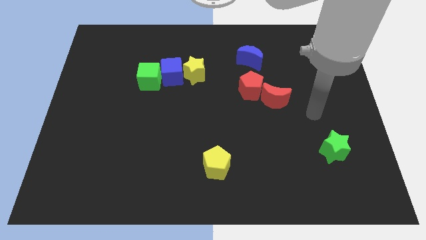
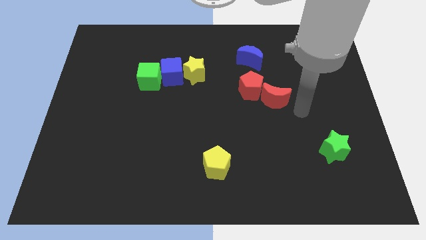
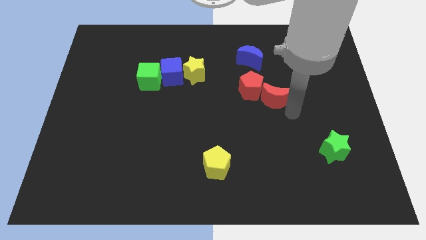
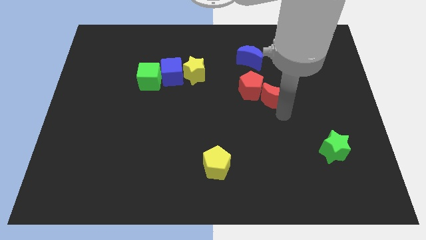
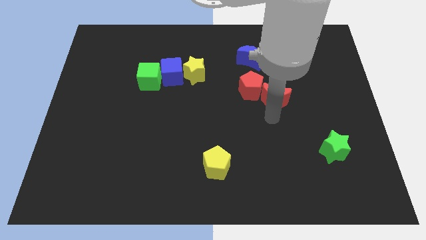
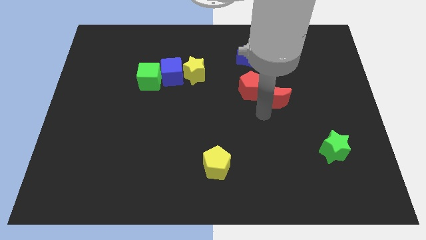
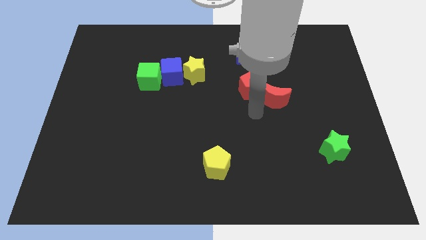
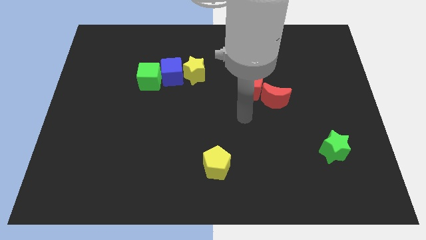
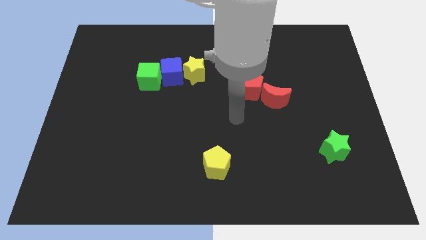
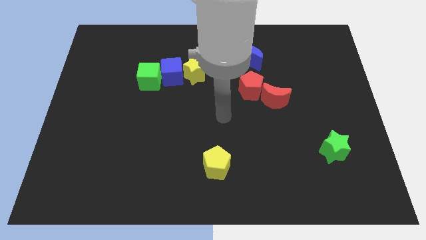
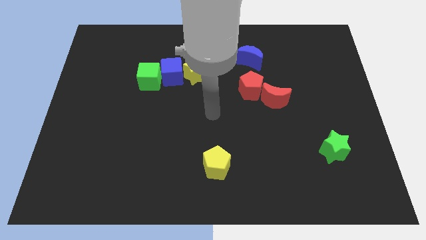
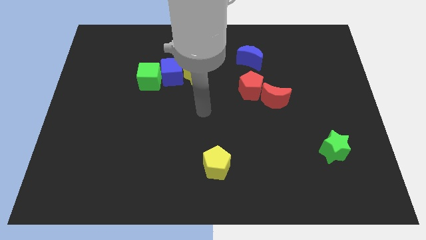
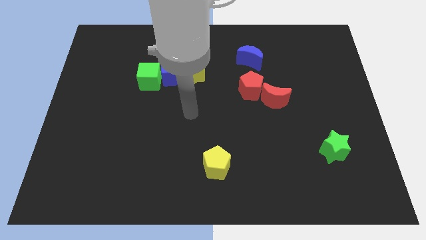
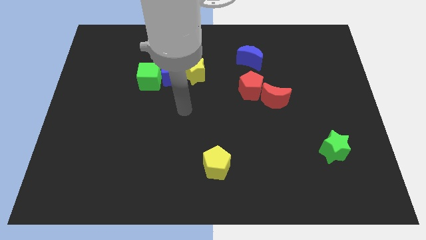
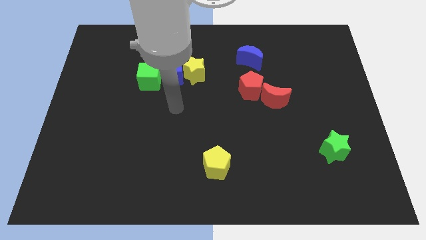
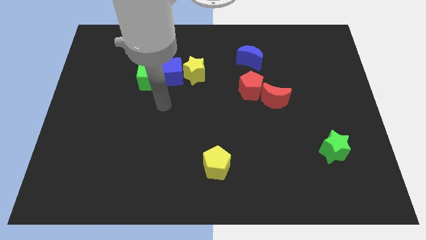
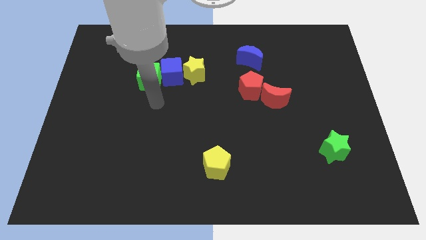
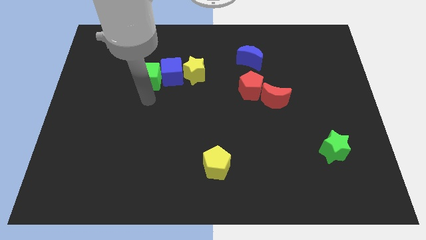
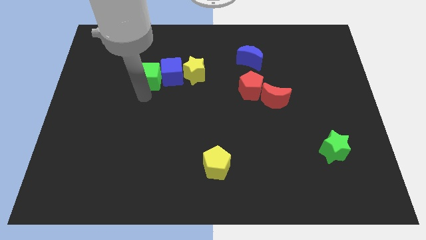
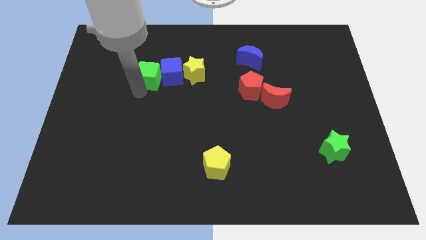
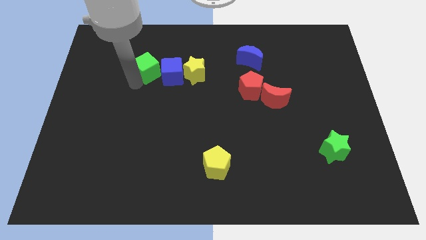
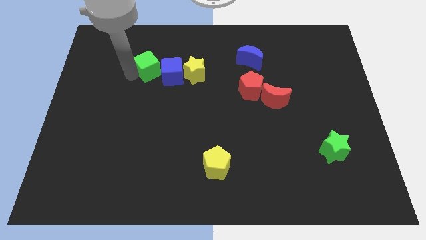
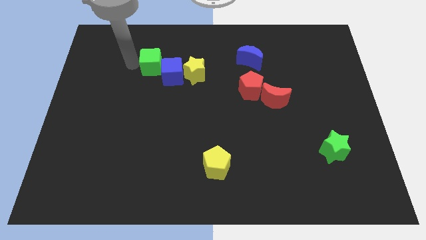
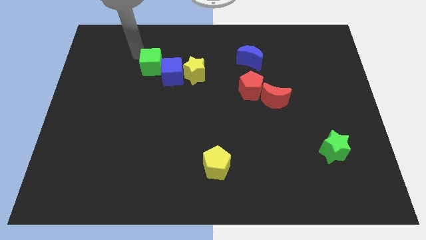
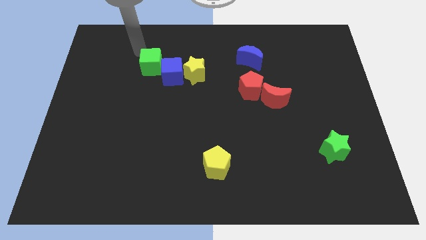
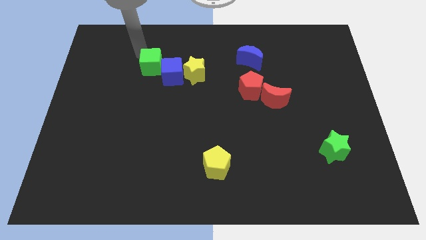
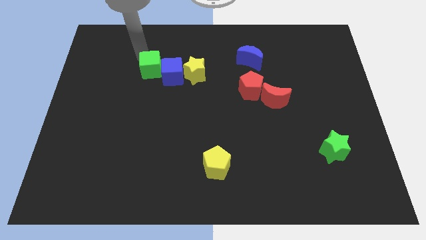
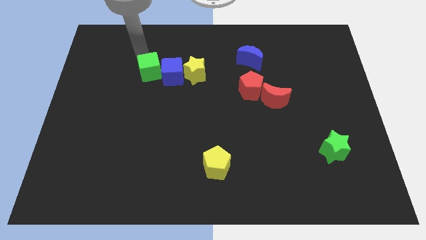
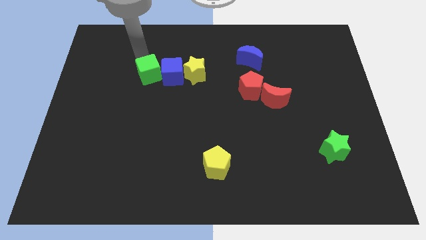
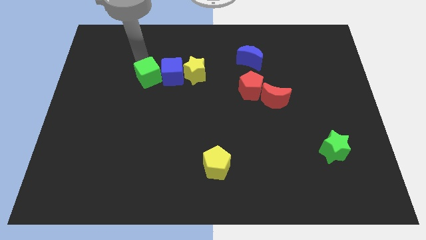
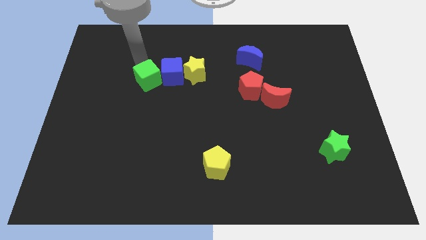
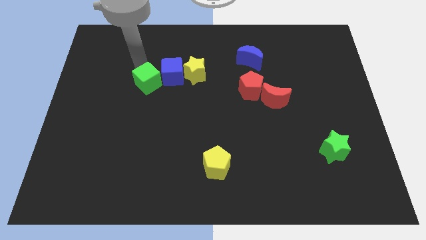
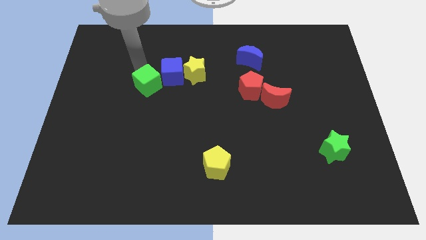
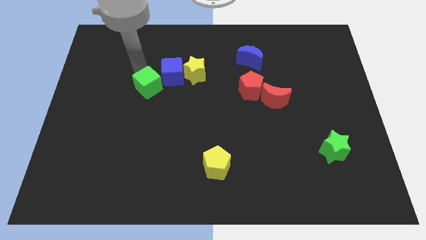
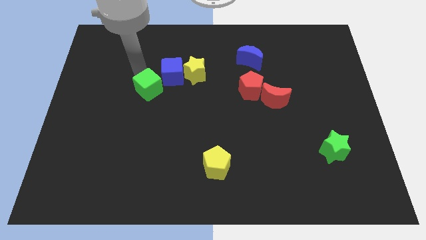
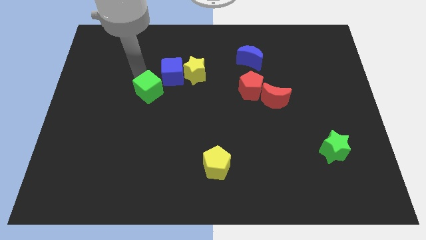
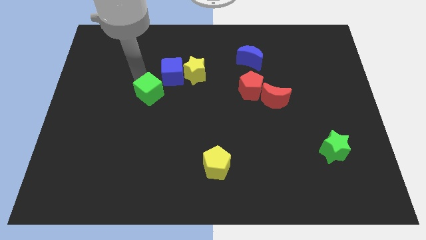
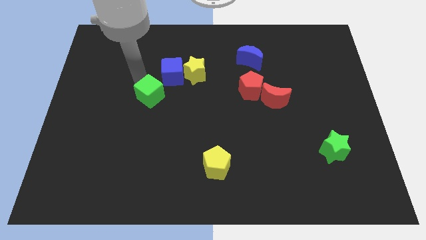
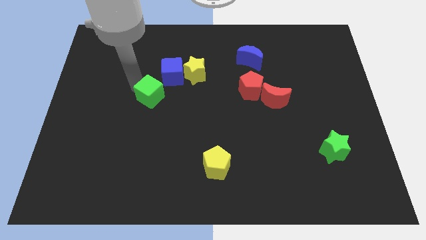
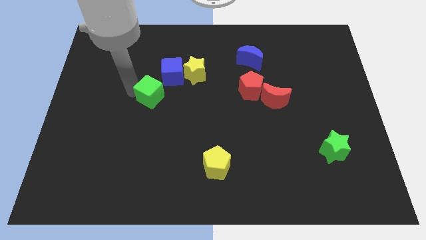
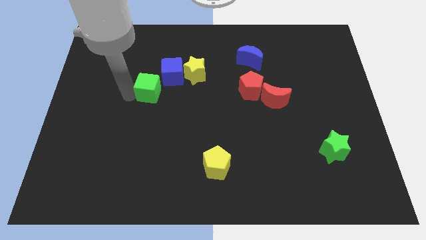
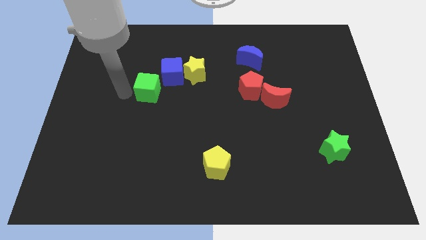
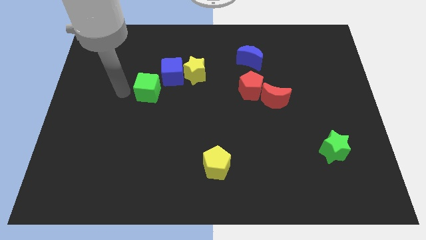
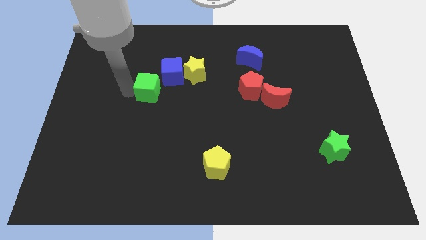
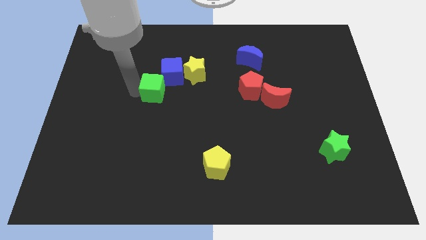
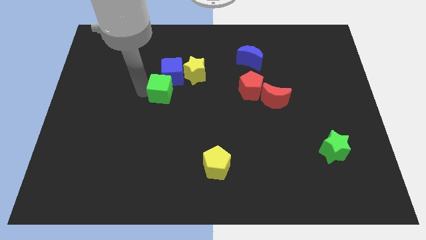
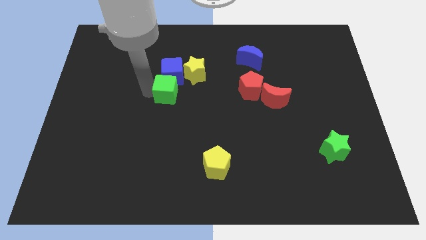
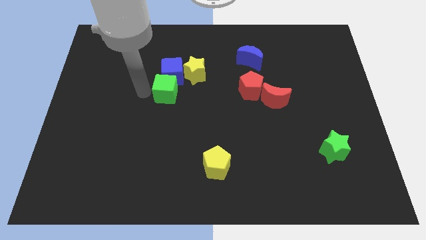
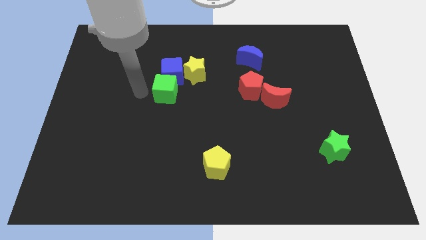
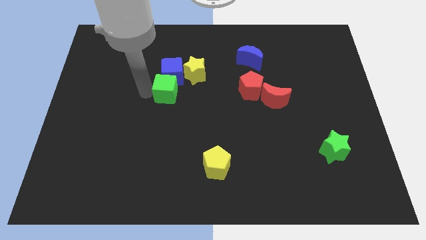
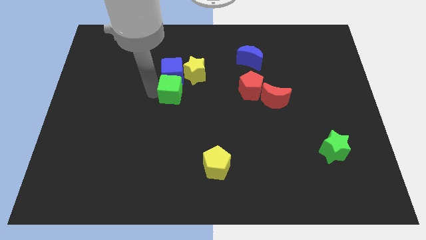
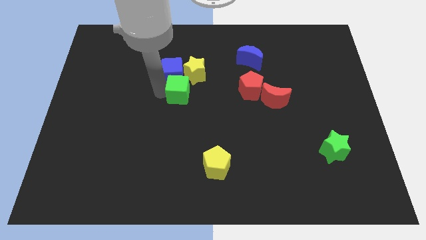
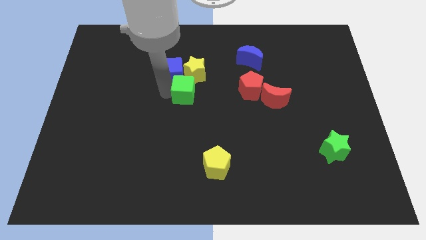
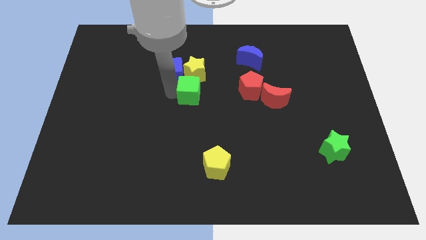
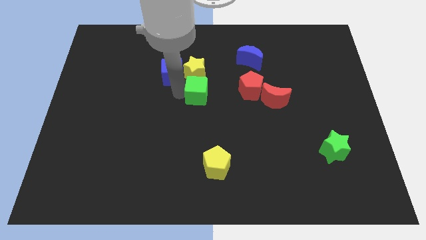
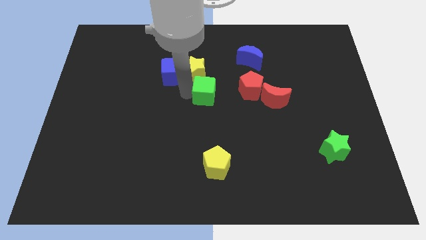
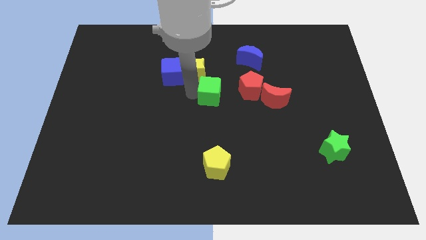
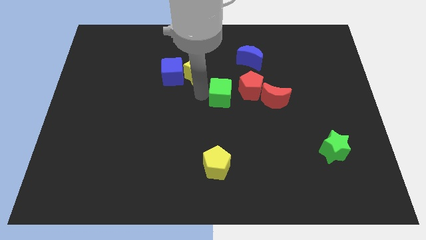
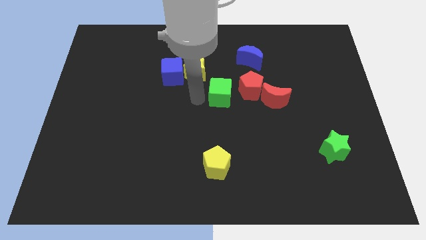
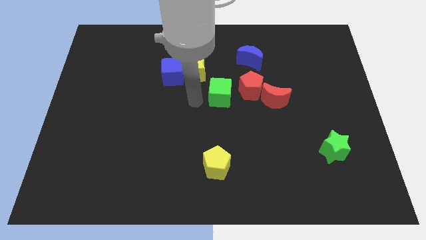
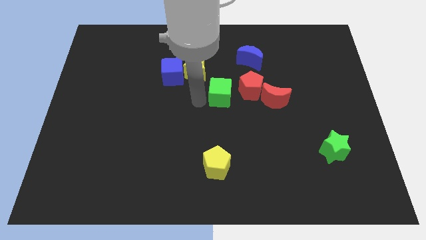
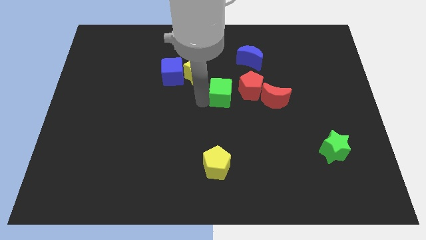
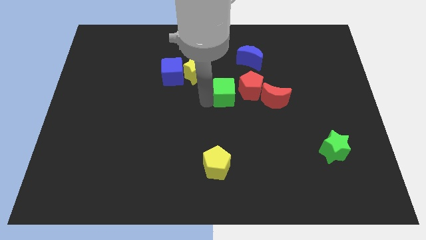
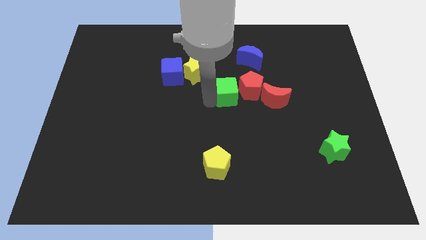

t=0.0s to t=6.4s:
push the green cube towards the red pentagon

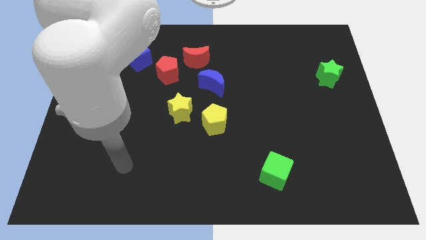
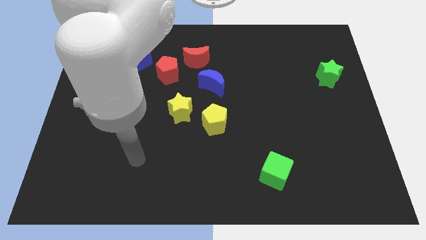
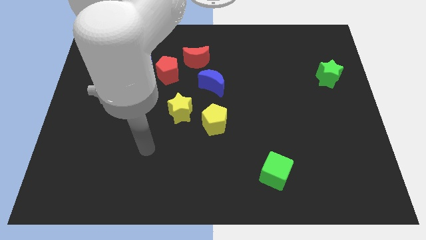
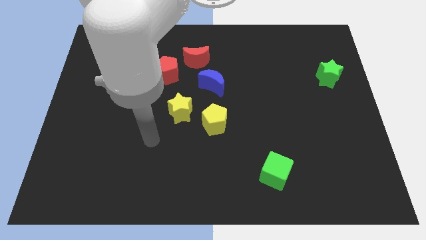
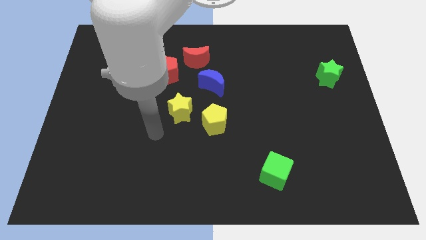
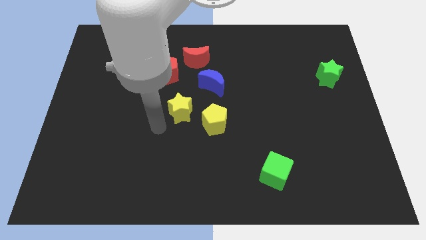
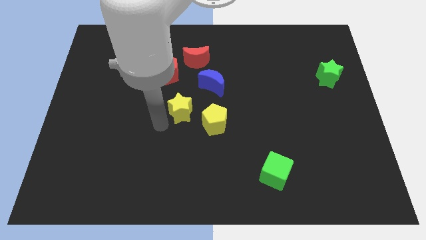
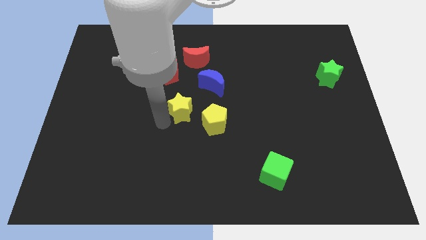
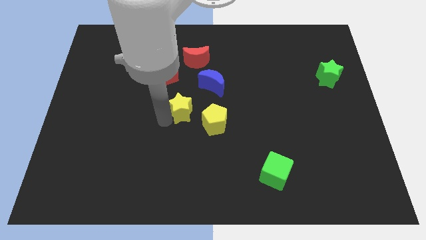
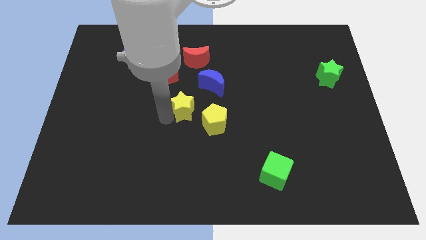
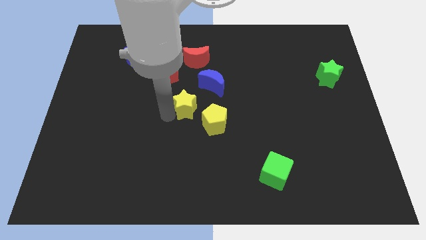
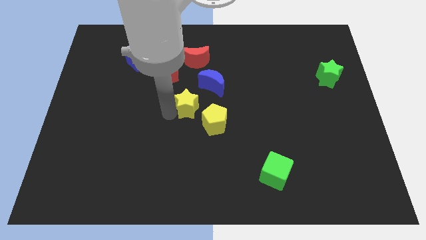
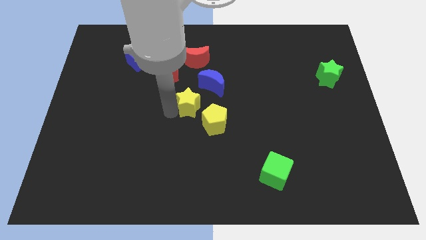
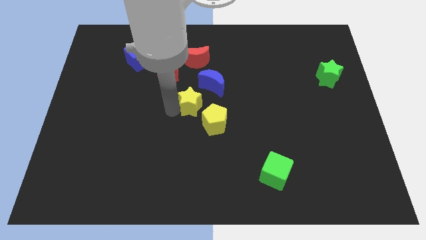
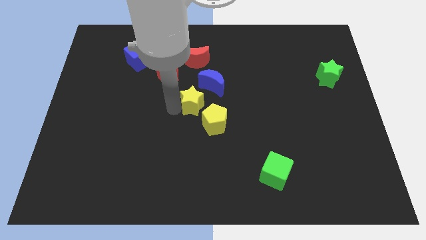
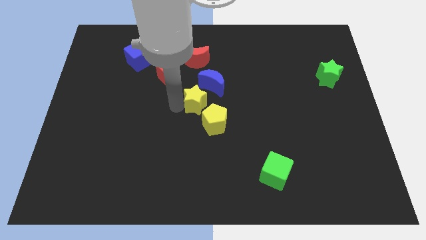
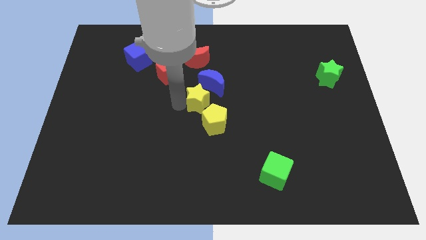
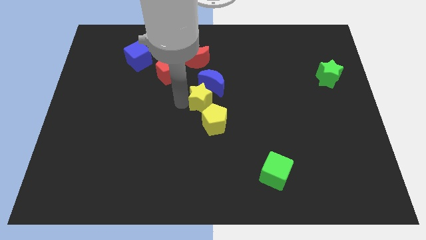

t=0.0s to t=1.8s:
push the yellow star towards the blue moon
